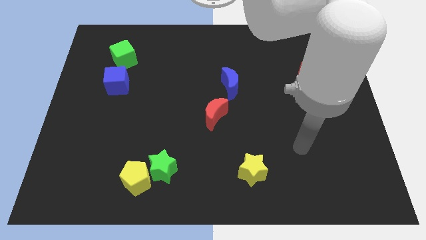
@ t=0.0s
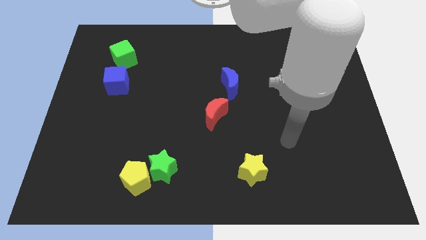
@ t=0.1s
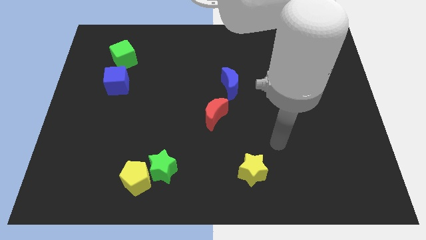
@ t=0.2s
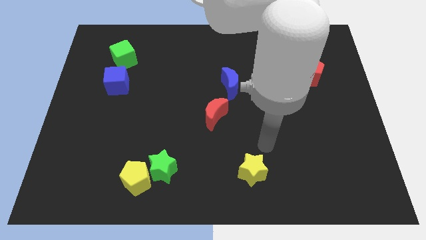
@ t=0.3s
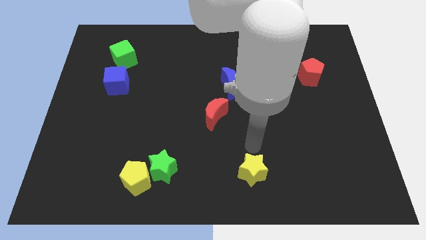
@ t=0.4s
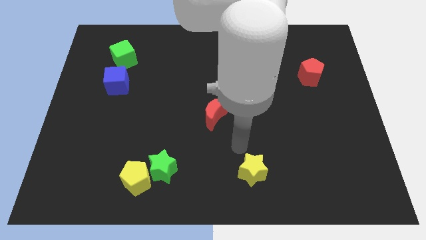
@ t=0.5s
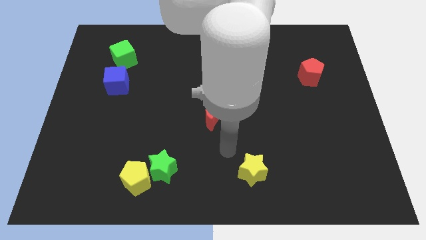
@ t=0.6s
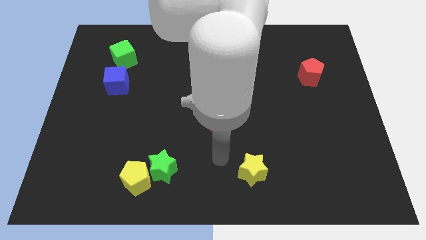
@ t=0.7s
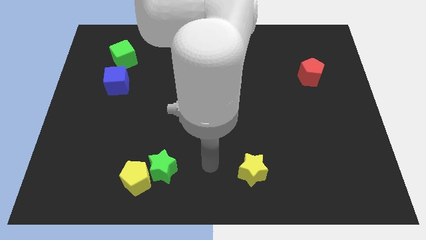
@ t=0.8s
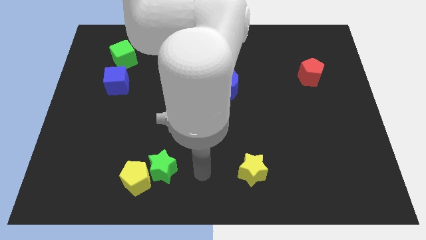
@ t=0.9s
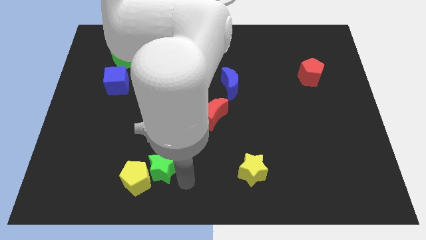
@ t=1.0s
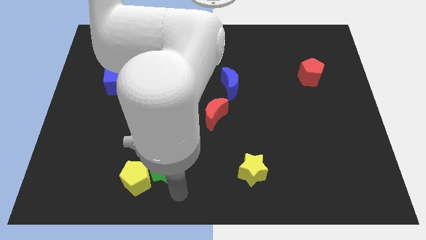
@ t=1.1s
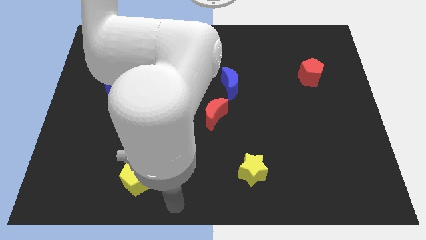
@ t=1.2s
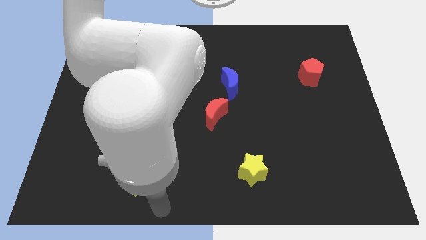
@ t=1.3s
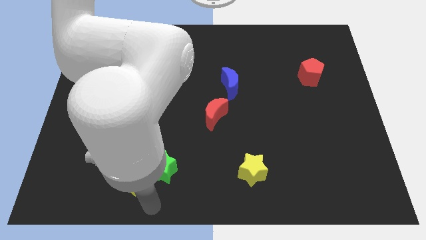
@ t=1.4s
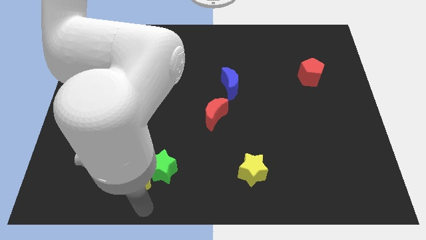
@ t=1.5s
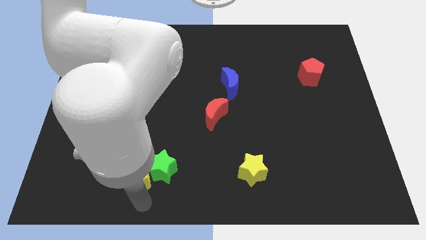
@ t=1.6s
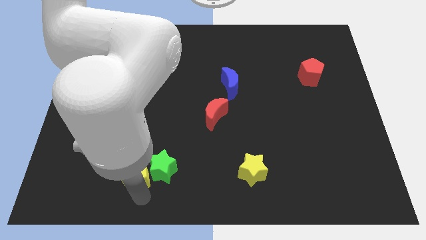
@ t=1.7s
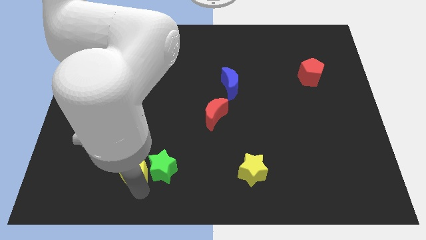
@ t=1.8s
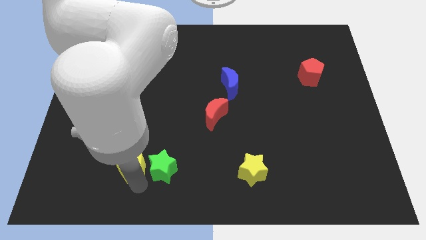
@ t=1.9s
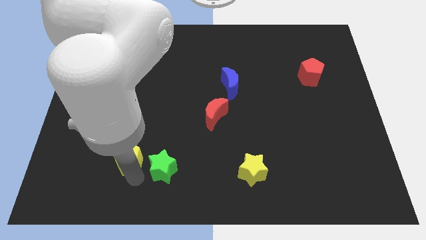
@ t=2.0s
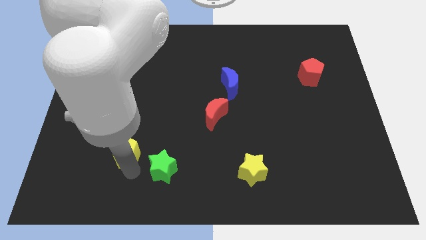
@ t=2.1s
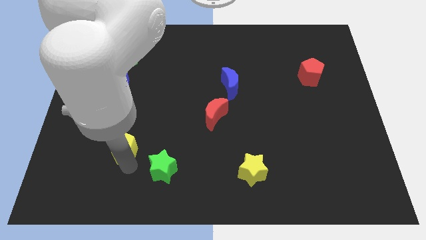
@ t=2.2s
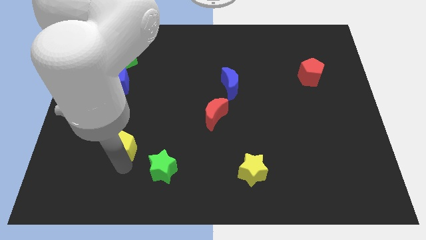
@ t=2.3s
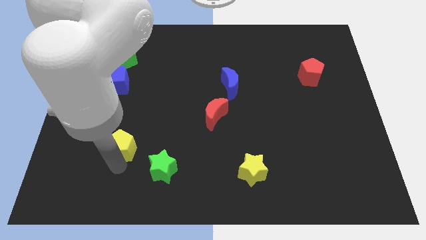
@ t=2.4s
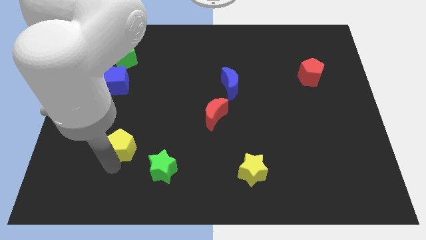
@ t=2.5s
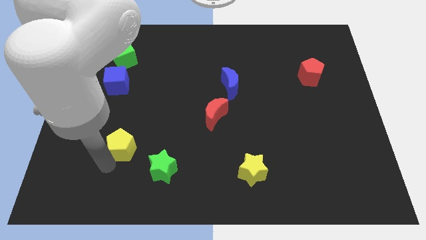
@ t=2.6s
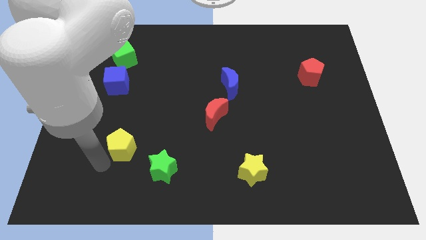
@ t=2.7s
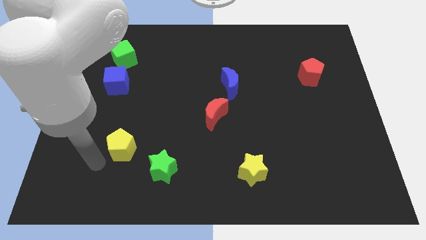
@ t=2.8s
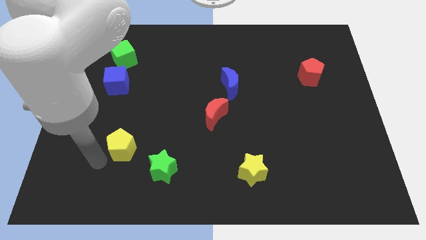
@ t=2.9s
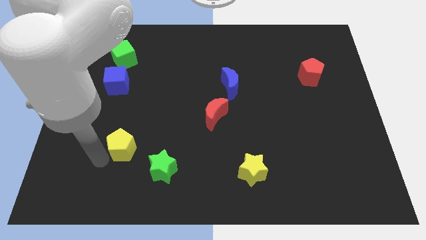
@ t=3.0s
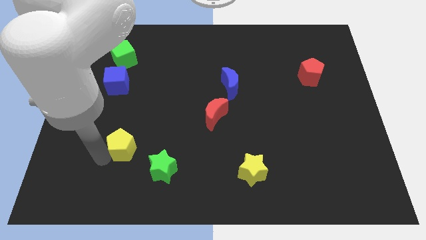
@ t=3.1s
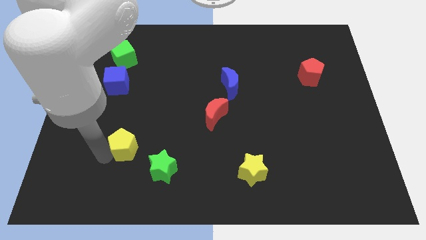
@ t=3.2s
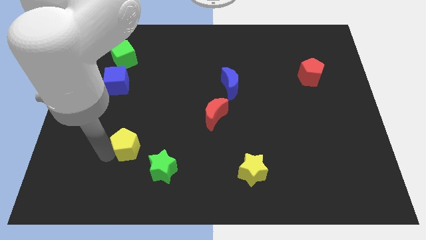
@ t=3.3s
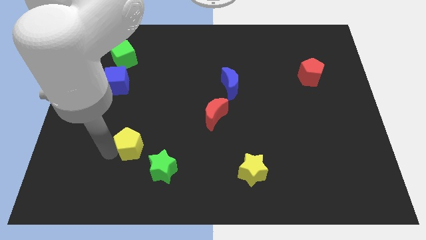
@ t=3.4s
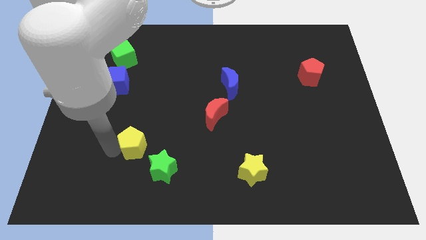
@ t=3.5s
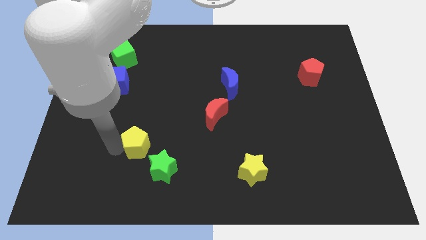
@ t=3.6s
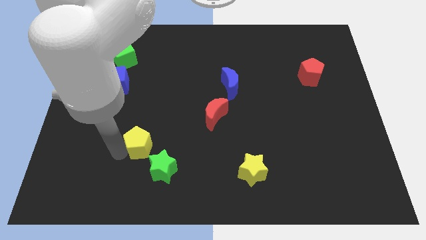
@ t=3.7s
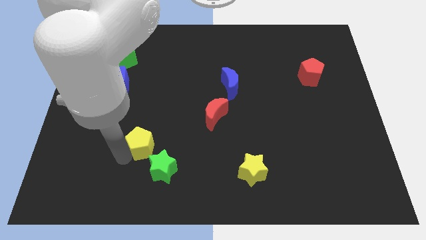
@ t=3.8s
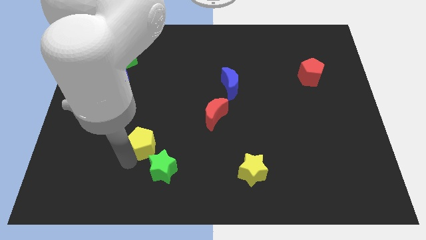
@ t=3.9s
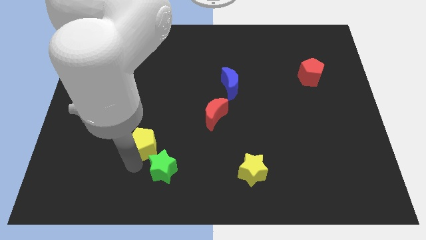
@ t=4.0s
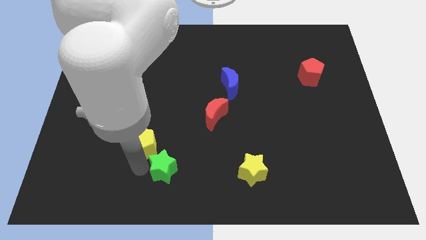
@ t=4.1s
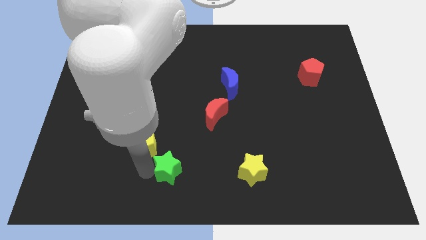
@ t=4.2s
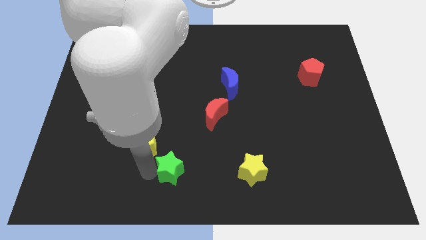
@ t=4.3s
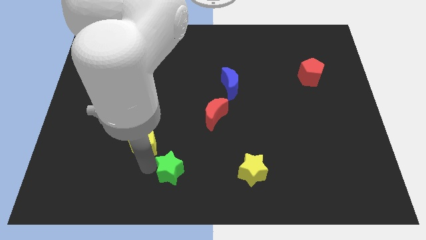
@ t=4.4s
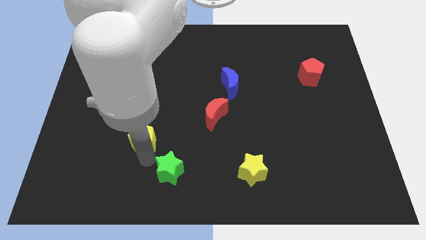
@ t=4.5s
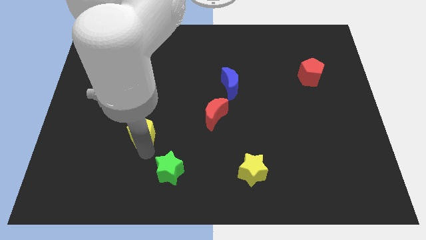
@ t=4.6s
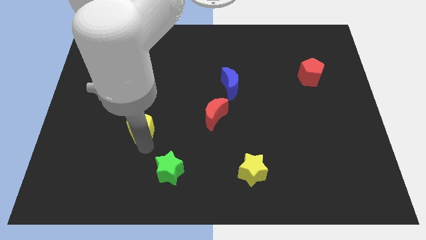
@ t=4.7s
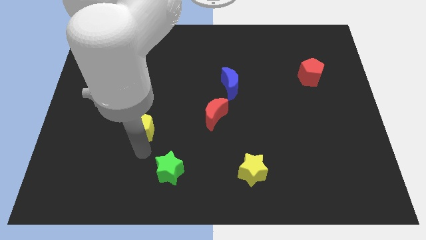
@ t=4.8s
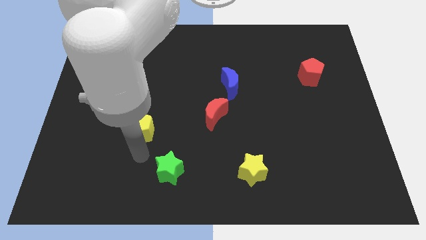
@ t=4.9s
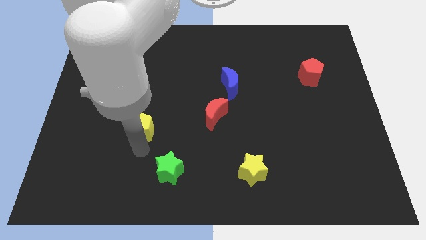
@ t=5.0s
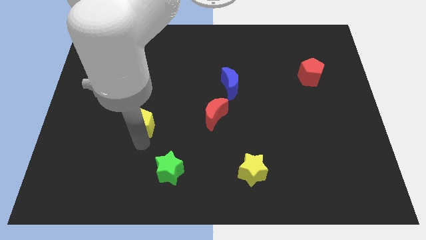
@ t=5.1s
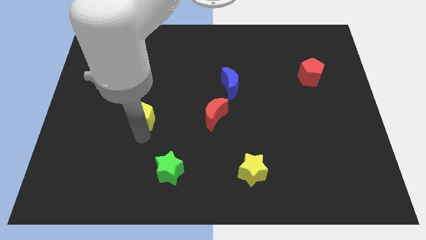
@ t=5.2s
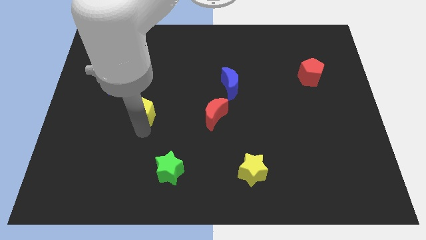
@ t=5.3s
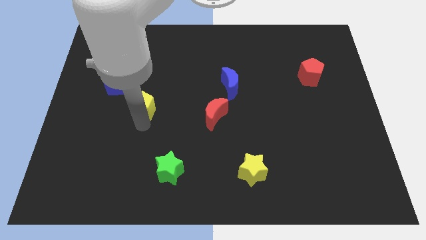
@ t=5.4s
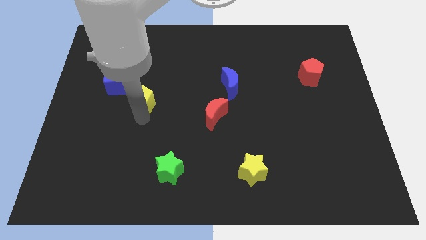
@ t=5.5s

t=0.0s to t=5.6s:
push the yellow pentagon up

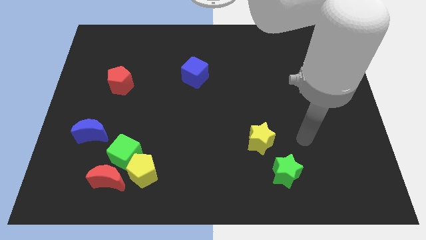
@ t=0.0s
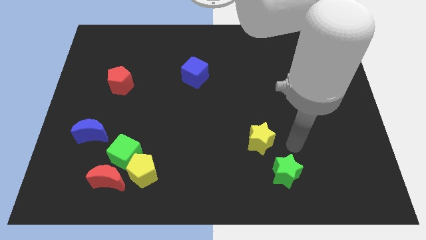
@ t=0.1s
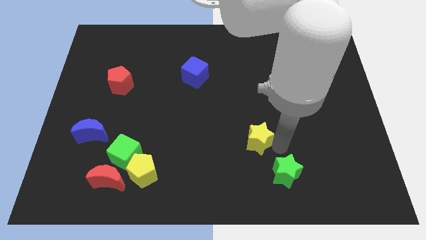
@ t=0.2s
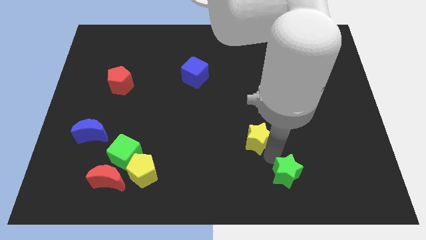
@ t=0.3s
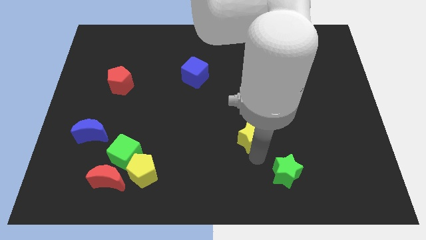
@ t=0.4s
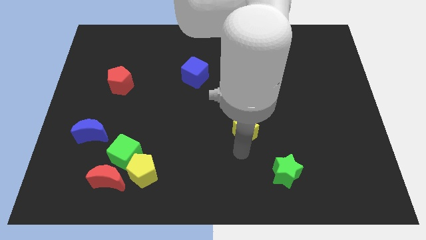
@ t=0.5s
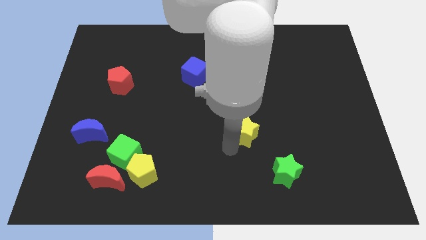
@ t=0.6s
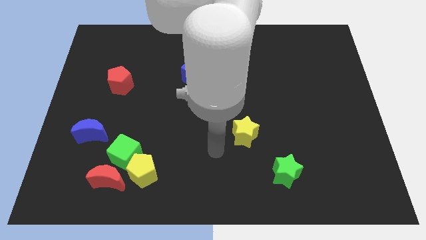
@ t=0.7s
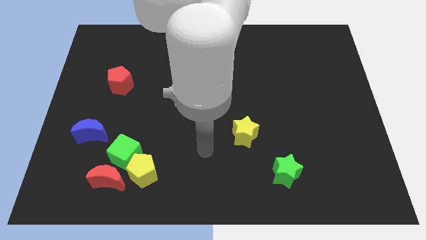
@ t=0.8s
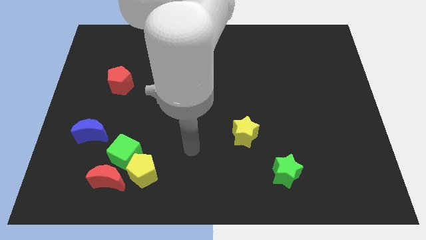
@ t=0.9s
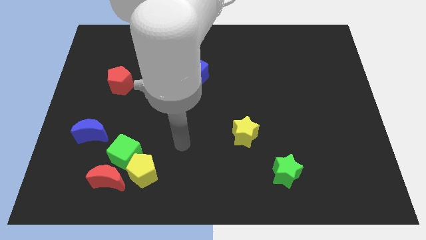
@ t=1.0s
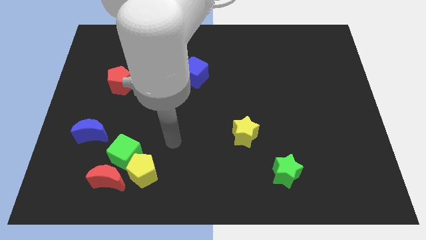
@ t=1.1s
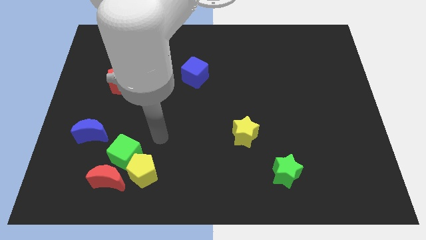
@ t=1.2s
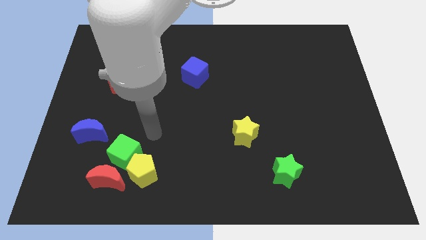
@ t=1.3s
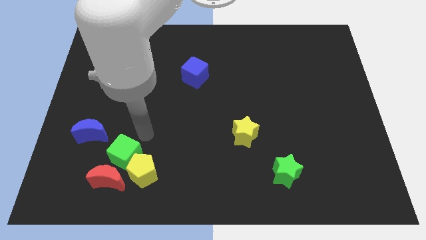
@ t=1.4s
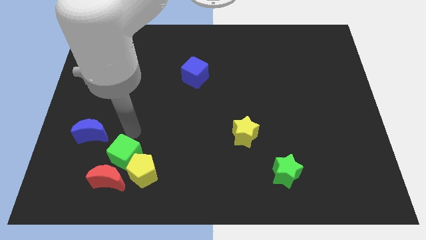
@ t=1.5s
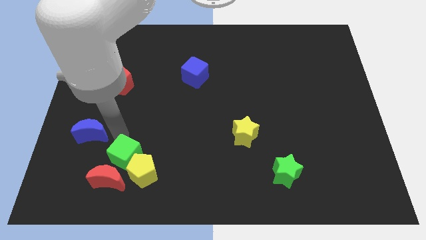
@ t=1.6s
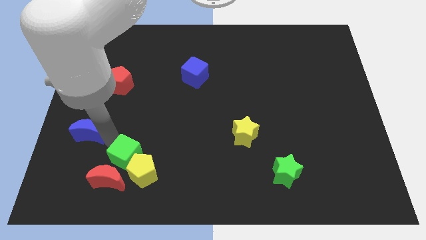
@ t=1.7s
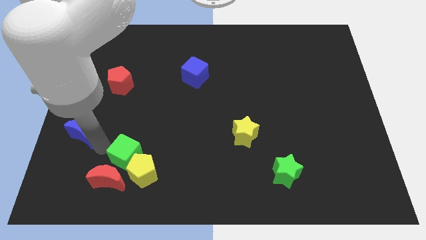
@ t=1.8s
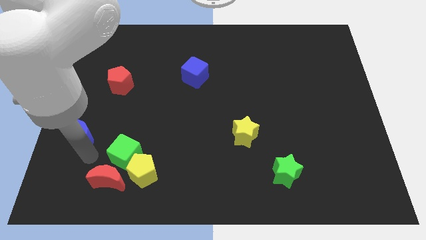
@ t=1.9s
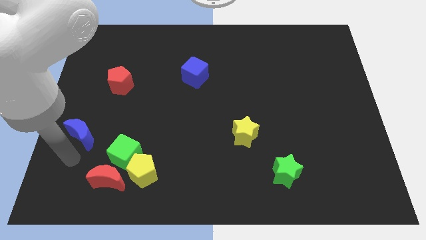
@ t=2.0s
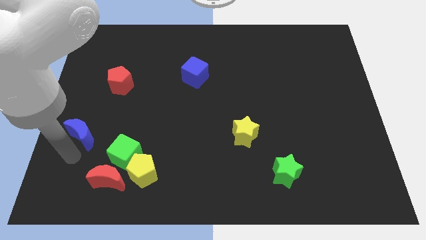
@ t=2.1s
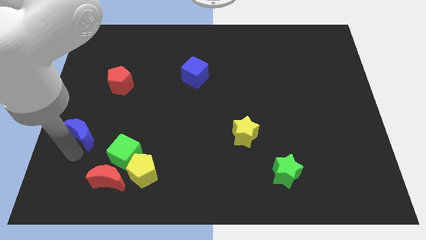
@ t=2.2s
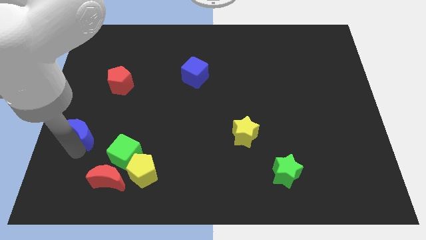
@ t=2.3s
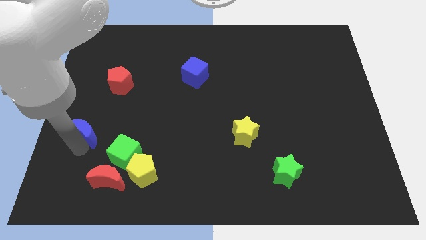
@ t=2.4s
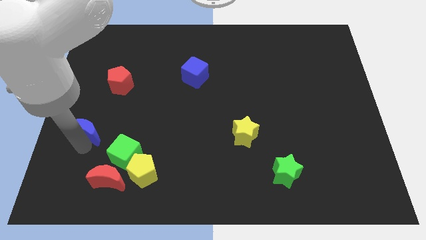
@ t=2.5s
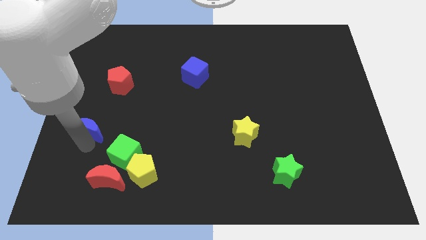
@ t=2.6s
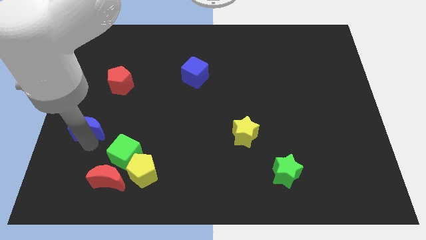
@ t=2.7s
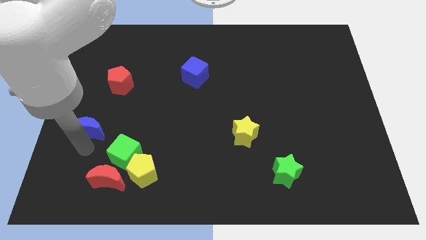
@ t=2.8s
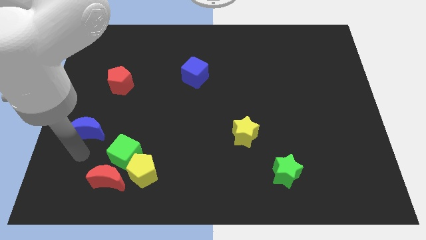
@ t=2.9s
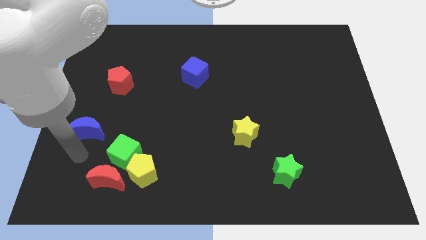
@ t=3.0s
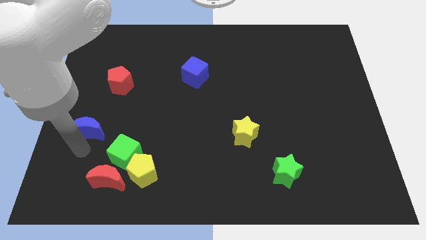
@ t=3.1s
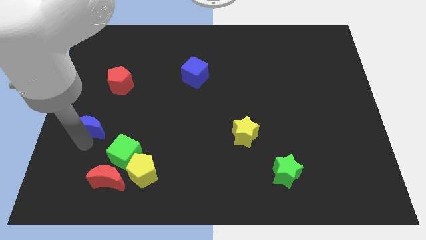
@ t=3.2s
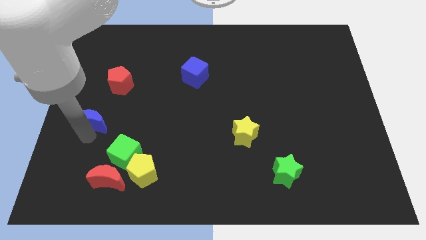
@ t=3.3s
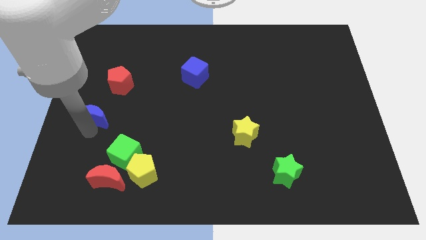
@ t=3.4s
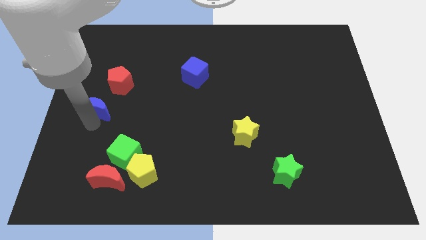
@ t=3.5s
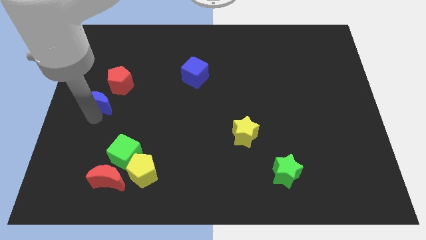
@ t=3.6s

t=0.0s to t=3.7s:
move the blue moon upwards a little bit
